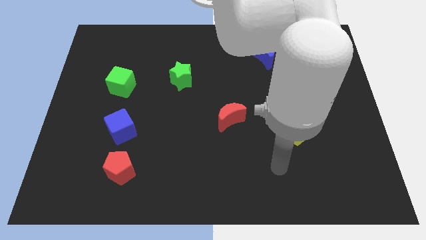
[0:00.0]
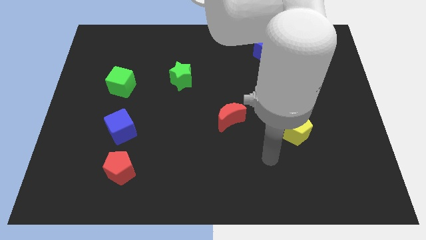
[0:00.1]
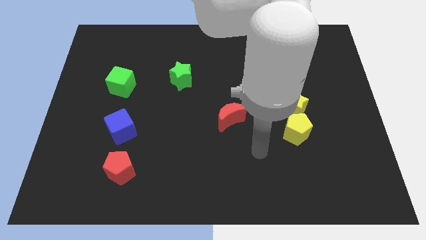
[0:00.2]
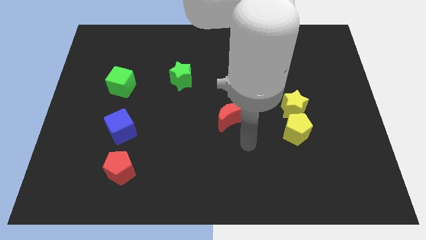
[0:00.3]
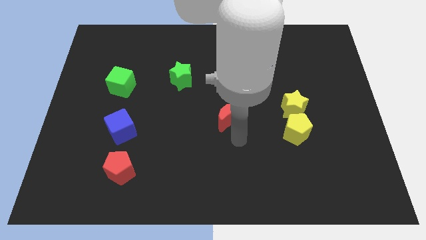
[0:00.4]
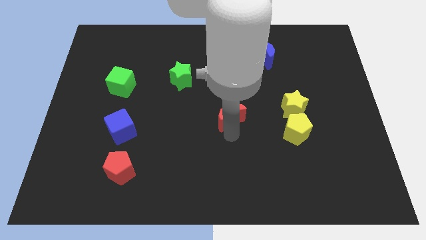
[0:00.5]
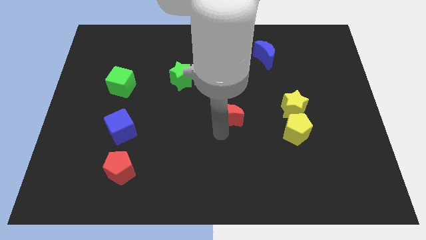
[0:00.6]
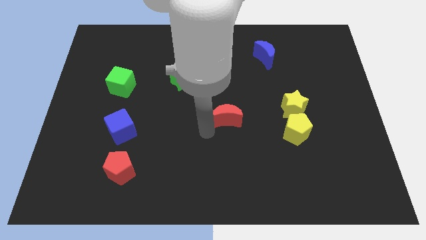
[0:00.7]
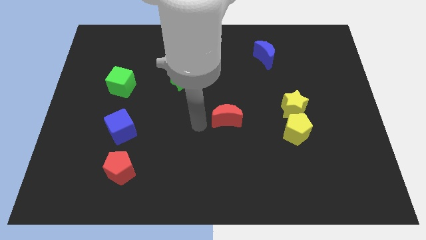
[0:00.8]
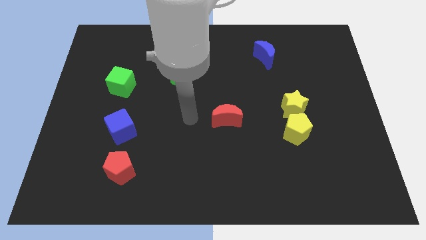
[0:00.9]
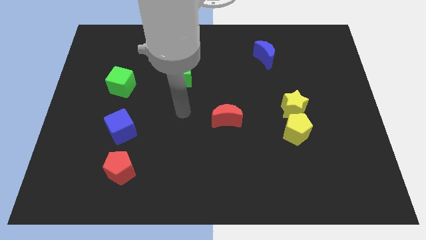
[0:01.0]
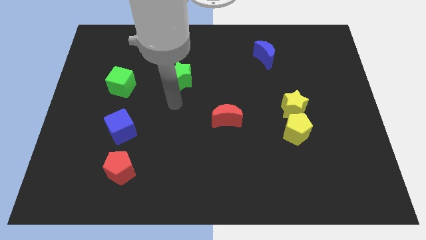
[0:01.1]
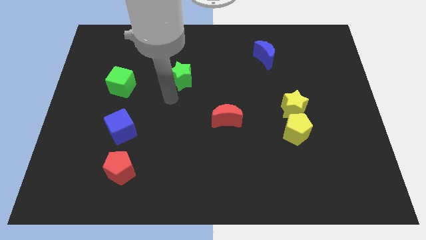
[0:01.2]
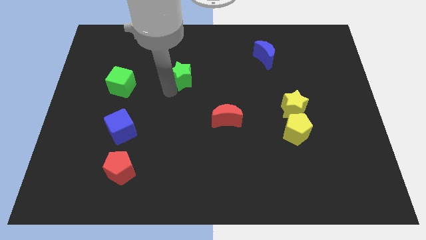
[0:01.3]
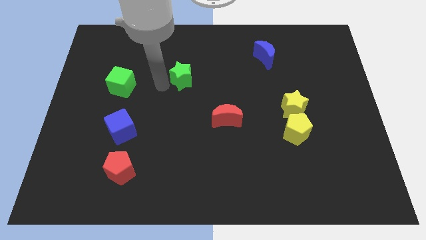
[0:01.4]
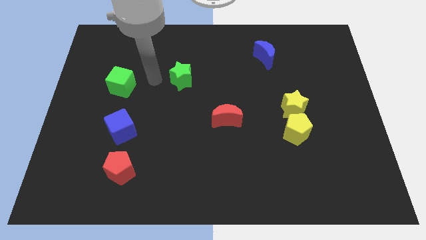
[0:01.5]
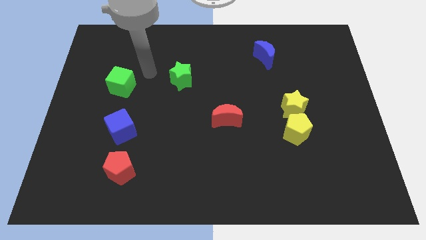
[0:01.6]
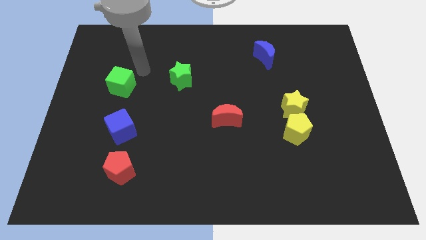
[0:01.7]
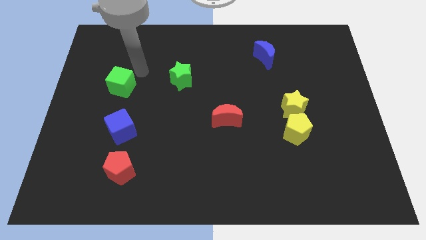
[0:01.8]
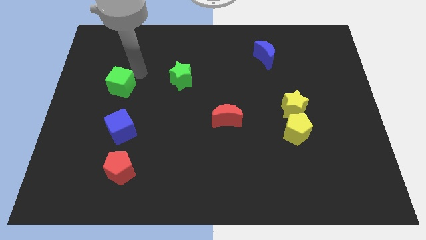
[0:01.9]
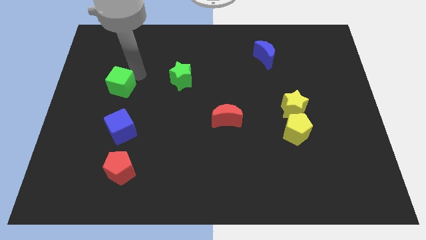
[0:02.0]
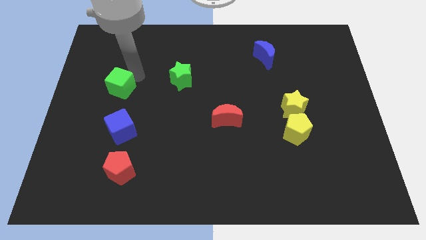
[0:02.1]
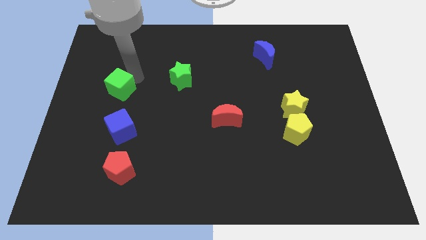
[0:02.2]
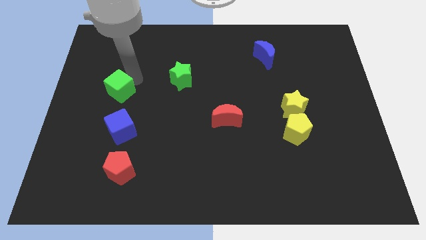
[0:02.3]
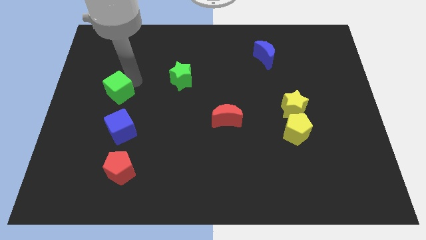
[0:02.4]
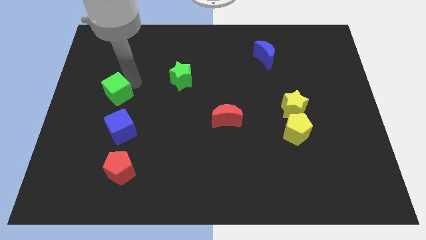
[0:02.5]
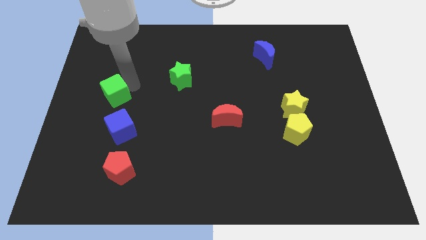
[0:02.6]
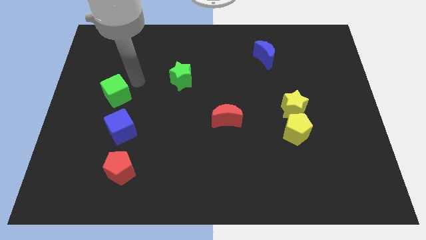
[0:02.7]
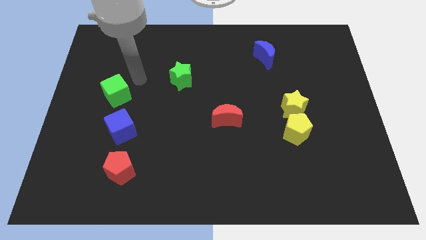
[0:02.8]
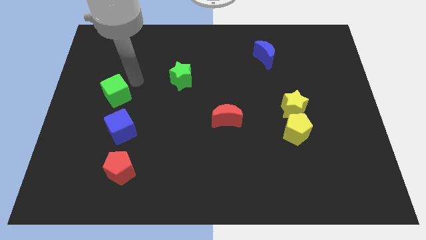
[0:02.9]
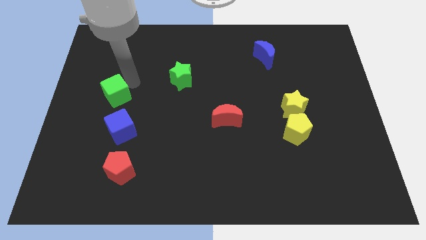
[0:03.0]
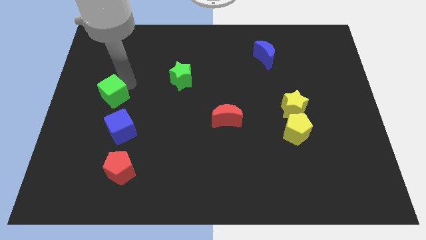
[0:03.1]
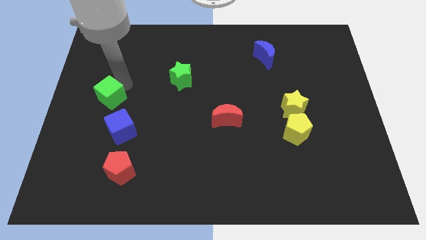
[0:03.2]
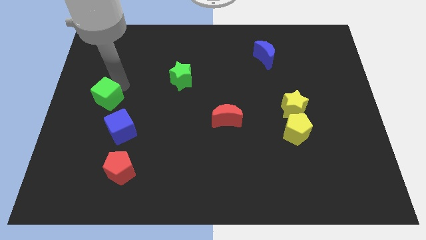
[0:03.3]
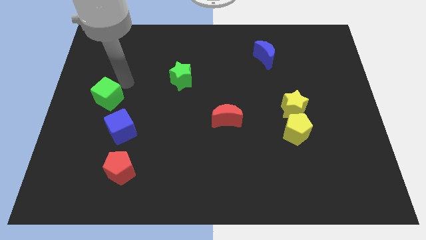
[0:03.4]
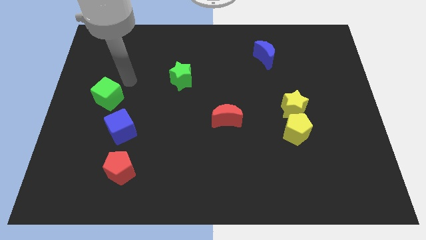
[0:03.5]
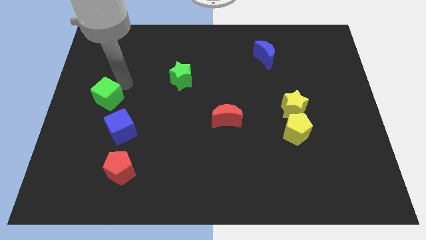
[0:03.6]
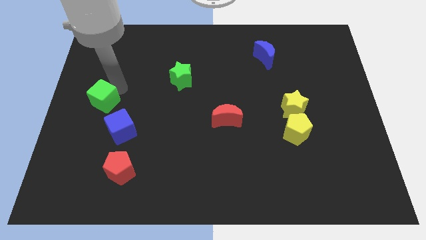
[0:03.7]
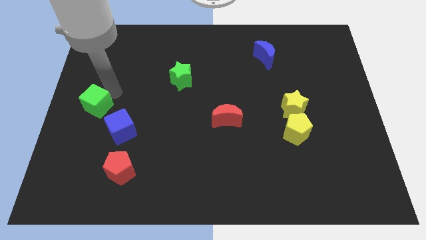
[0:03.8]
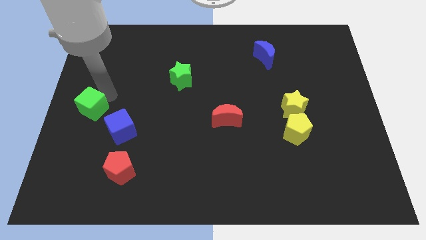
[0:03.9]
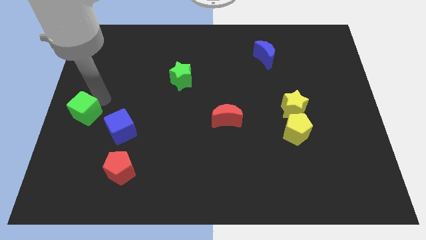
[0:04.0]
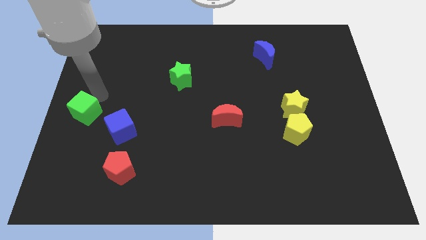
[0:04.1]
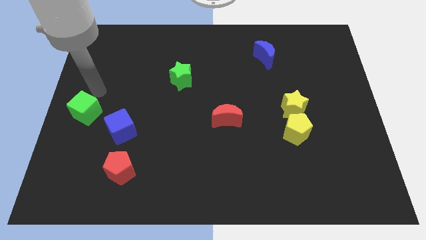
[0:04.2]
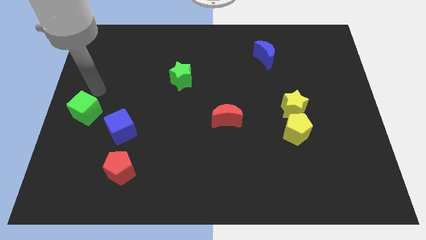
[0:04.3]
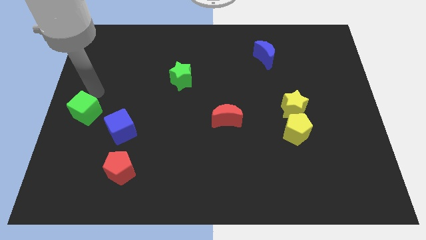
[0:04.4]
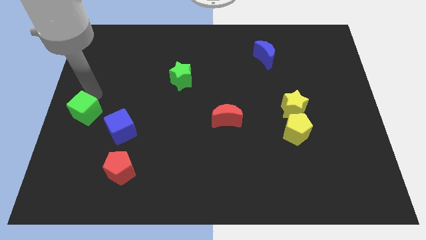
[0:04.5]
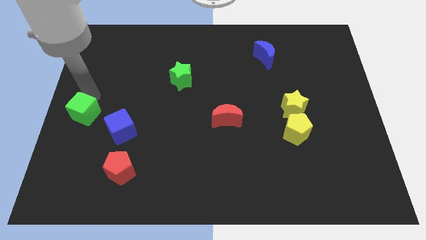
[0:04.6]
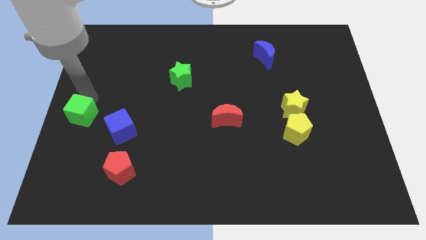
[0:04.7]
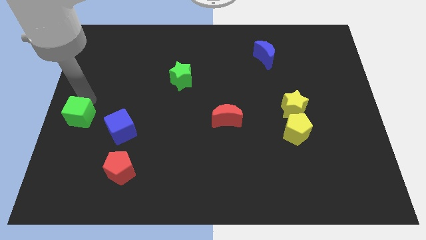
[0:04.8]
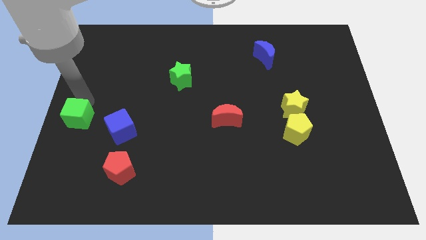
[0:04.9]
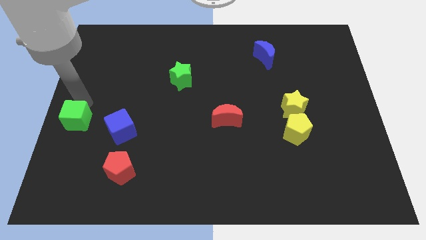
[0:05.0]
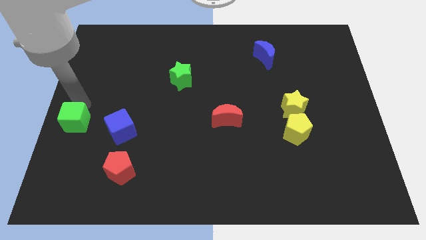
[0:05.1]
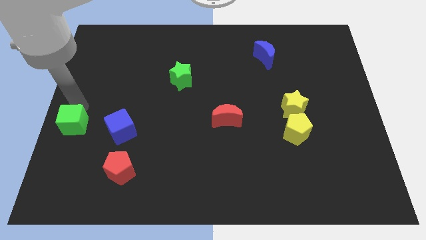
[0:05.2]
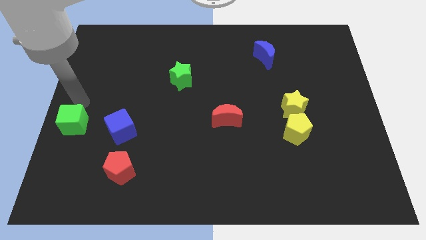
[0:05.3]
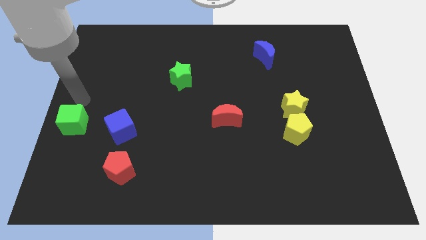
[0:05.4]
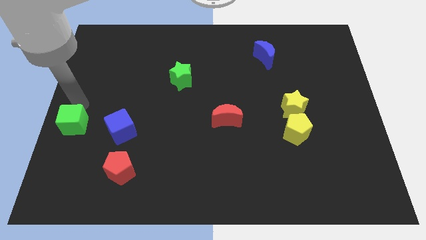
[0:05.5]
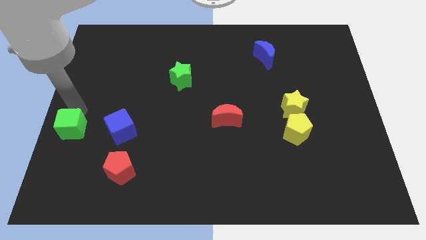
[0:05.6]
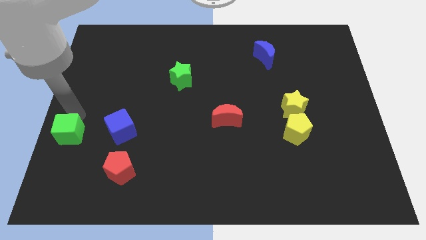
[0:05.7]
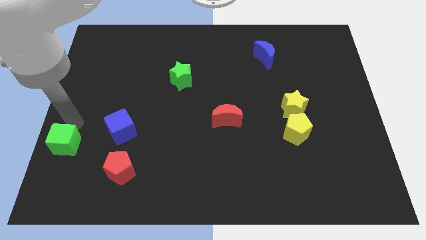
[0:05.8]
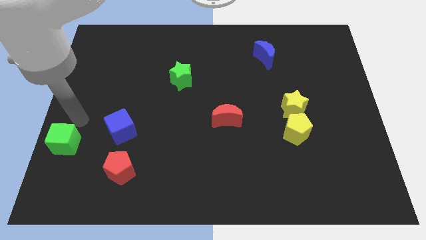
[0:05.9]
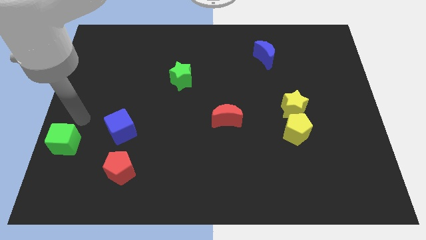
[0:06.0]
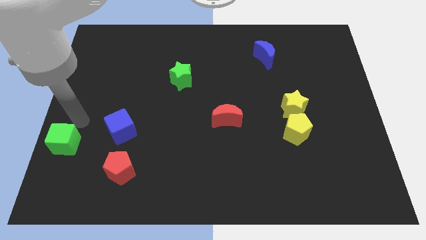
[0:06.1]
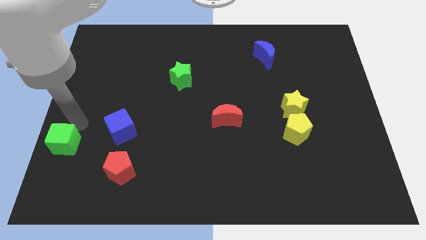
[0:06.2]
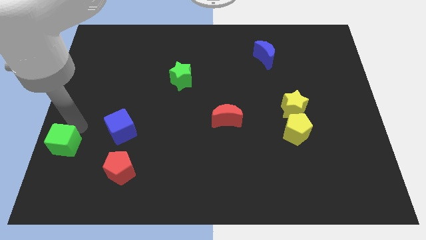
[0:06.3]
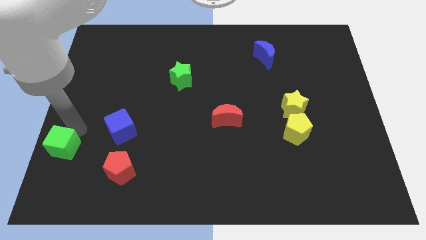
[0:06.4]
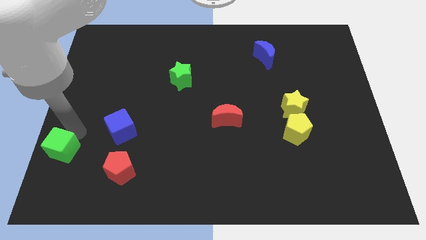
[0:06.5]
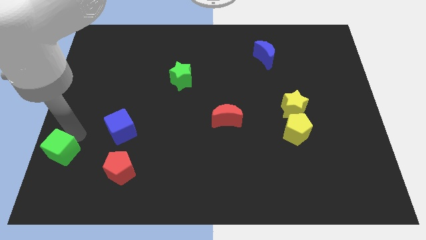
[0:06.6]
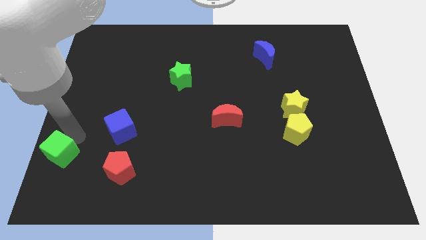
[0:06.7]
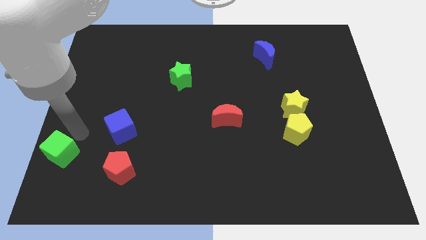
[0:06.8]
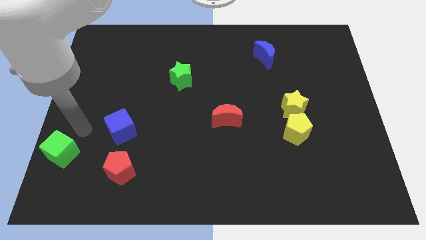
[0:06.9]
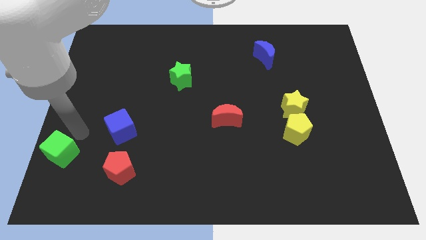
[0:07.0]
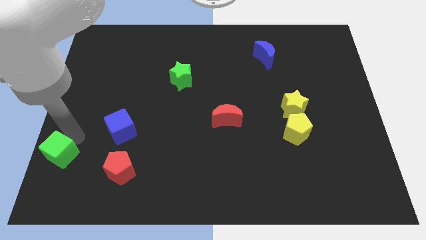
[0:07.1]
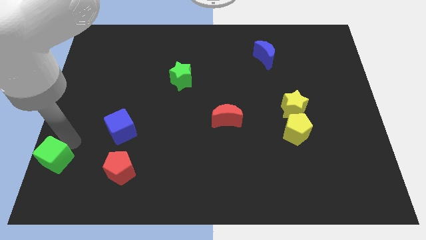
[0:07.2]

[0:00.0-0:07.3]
push the green cube to the bottom left of the board
